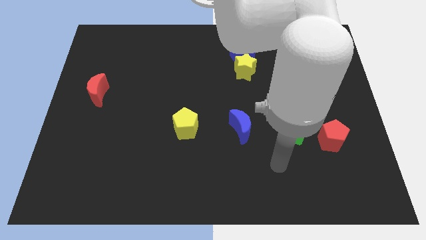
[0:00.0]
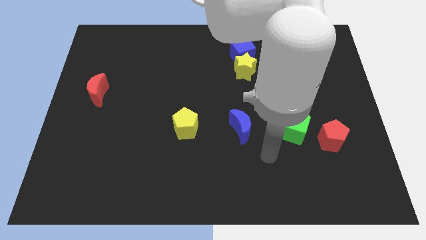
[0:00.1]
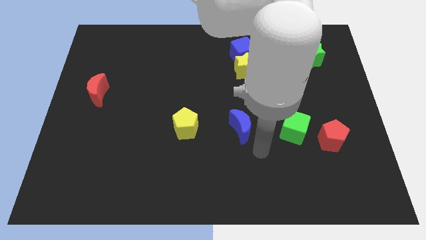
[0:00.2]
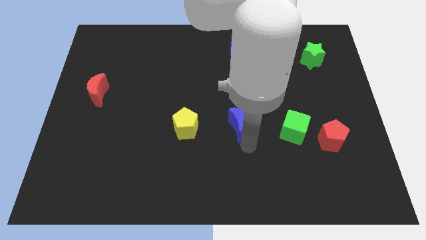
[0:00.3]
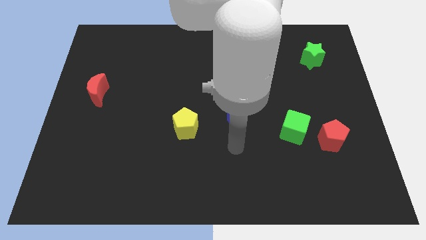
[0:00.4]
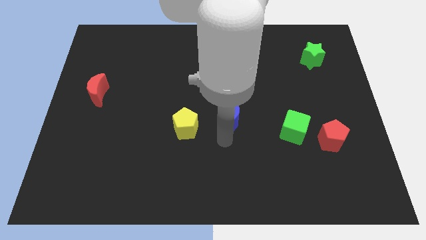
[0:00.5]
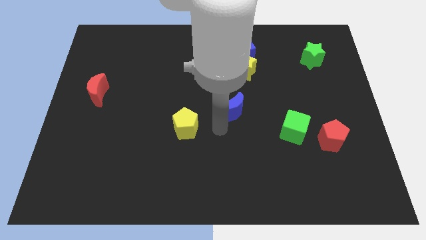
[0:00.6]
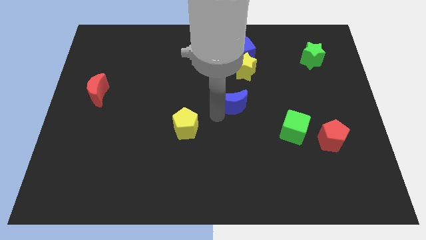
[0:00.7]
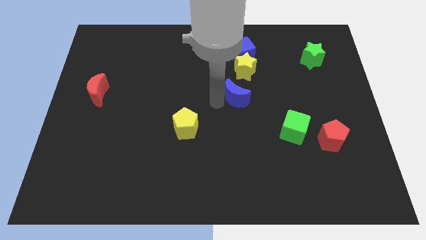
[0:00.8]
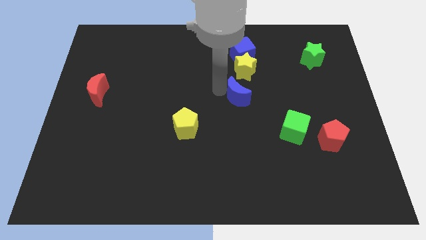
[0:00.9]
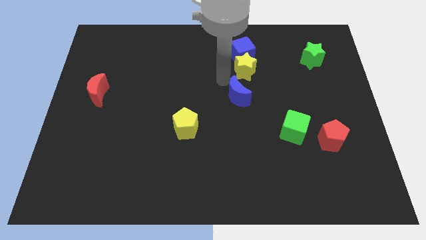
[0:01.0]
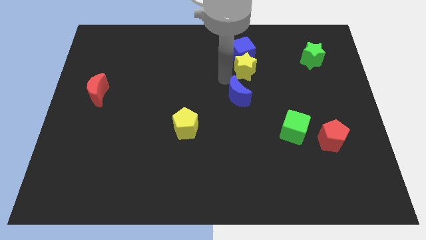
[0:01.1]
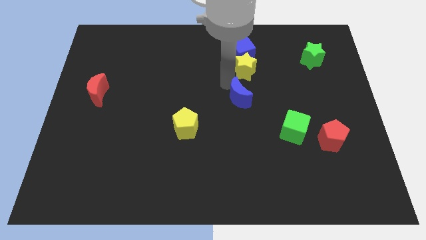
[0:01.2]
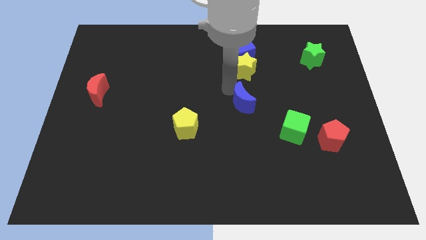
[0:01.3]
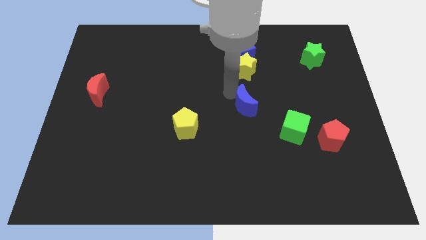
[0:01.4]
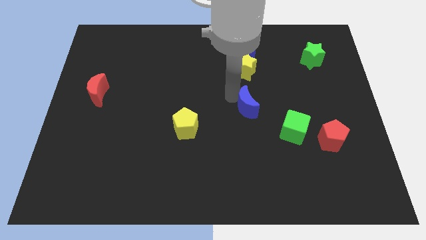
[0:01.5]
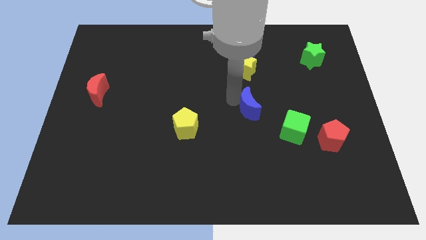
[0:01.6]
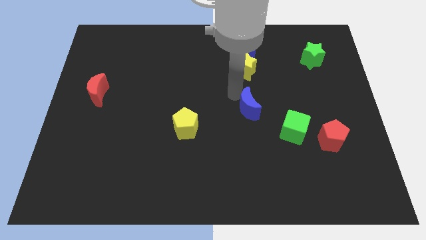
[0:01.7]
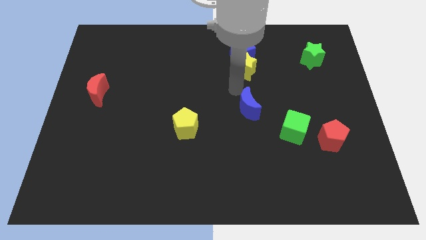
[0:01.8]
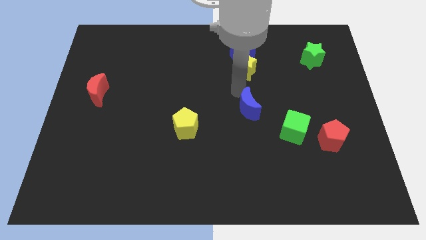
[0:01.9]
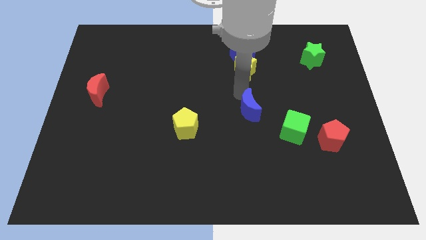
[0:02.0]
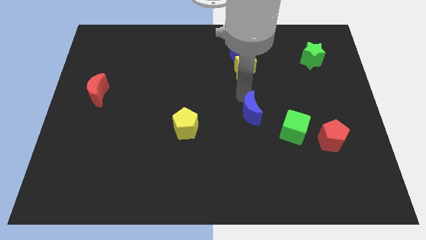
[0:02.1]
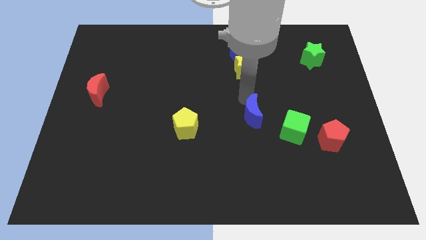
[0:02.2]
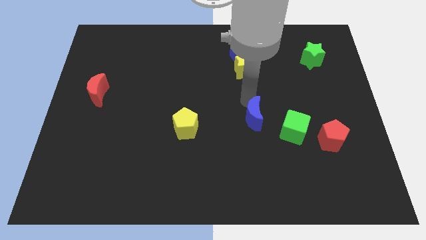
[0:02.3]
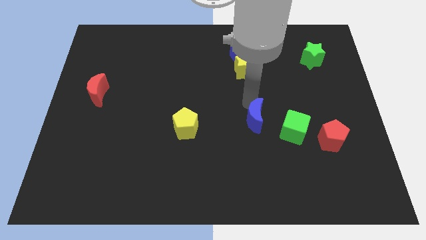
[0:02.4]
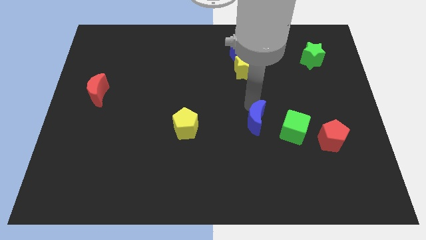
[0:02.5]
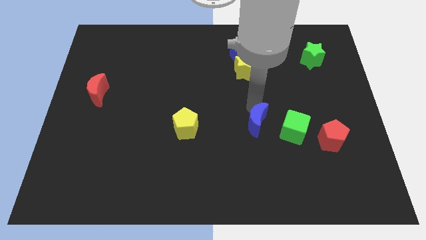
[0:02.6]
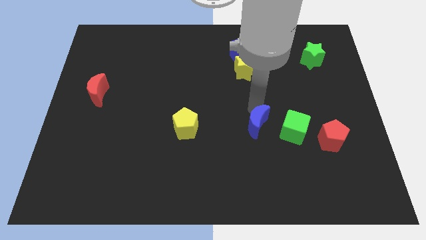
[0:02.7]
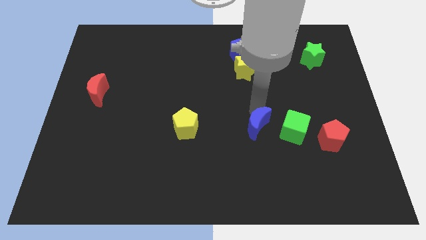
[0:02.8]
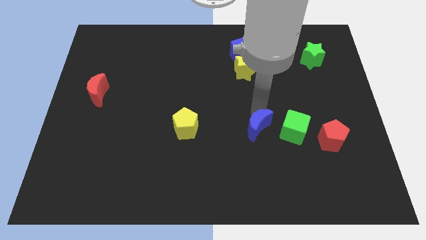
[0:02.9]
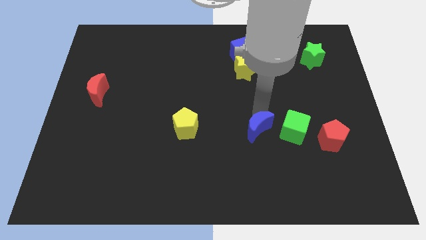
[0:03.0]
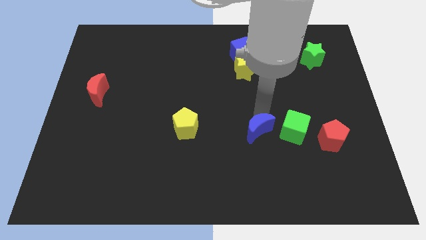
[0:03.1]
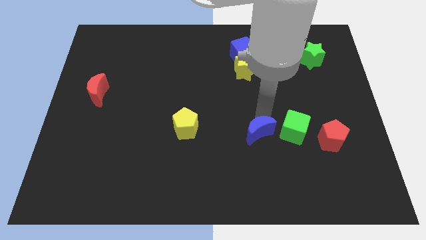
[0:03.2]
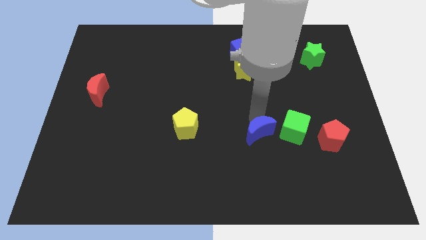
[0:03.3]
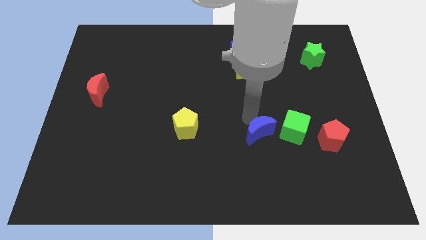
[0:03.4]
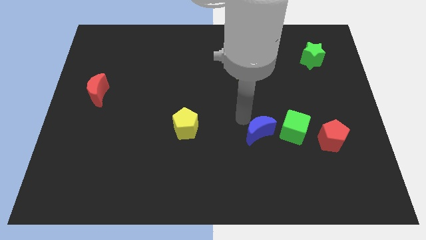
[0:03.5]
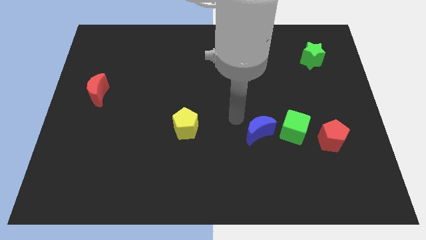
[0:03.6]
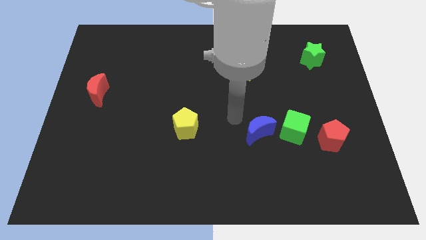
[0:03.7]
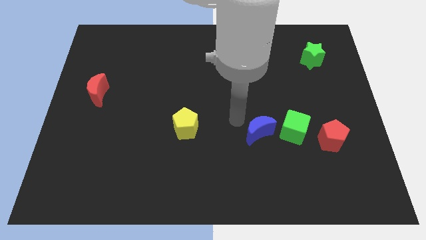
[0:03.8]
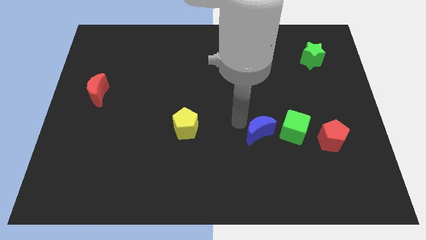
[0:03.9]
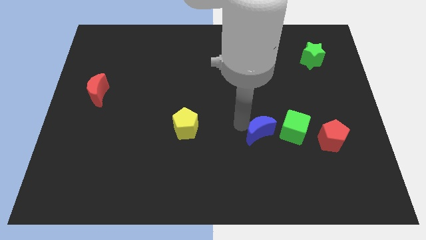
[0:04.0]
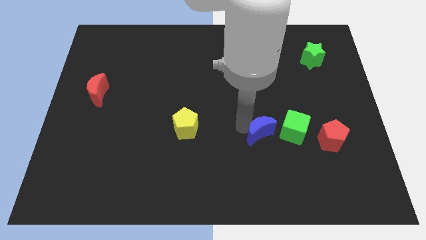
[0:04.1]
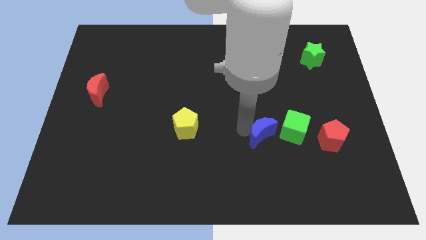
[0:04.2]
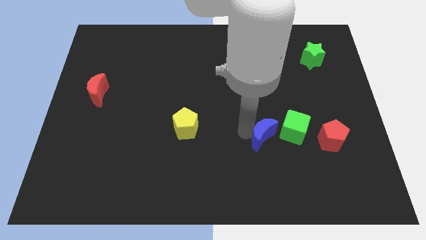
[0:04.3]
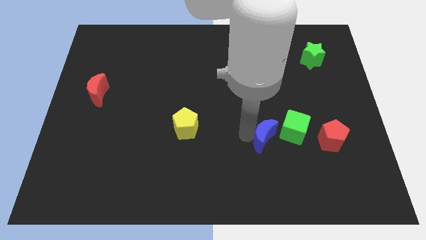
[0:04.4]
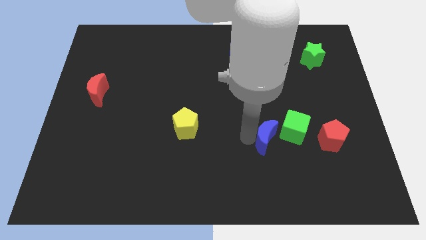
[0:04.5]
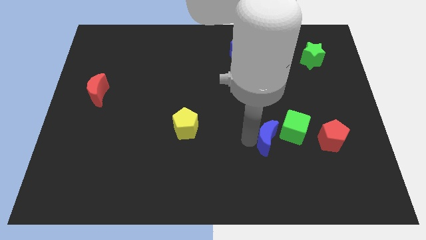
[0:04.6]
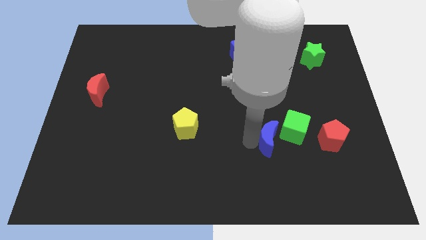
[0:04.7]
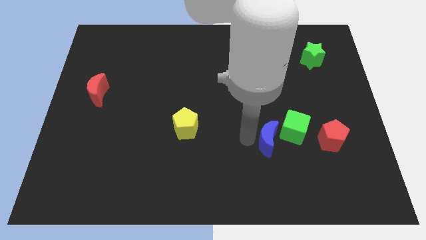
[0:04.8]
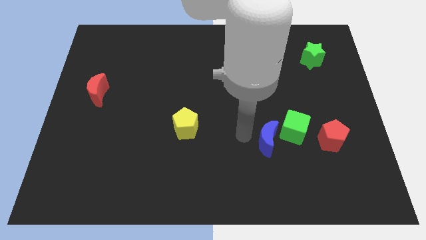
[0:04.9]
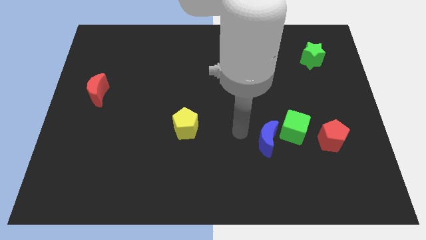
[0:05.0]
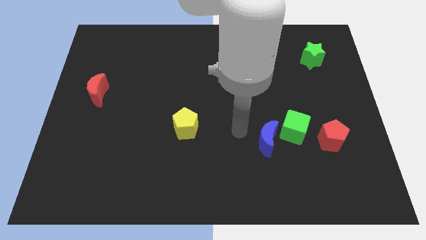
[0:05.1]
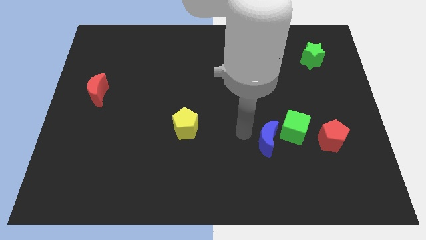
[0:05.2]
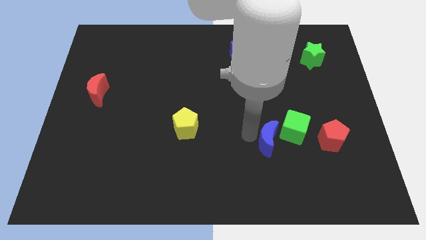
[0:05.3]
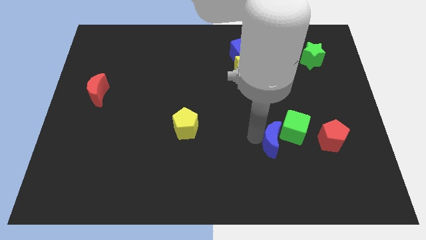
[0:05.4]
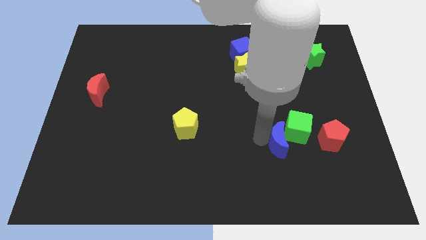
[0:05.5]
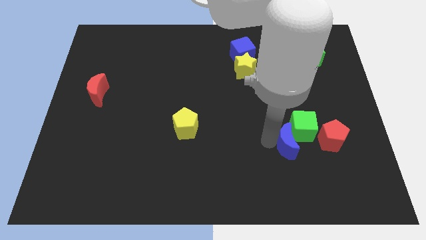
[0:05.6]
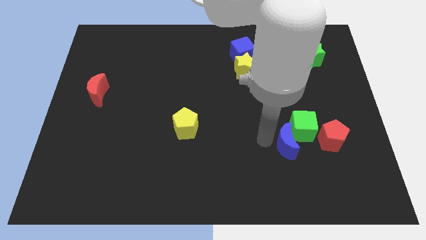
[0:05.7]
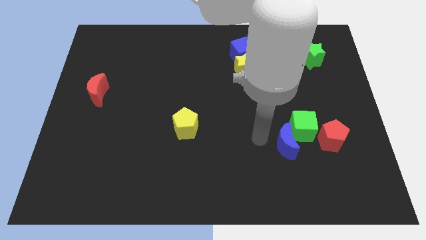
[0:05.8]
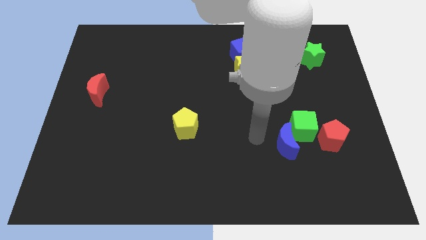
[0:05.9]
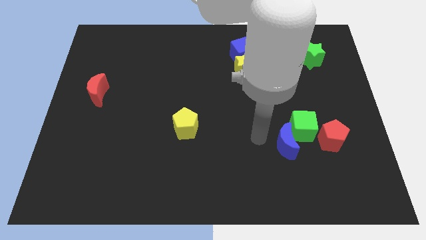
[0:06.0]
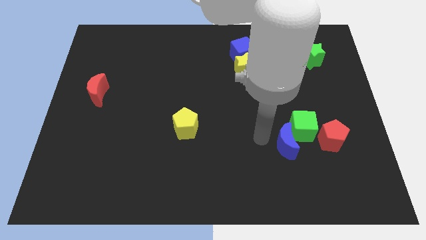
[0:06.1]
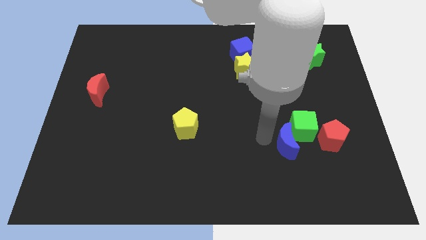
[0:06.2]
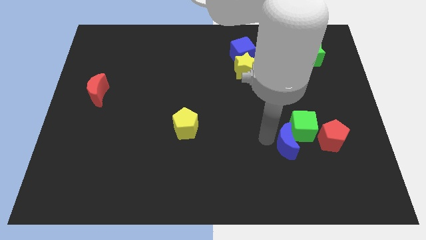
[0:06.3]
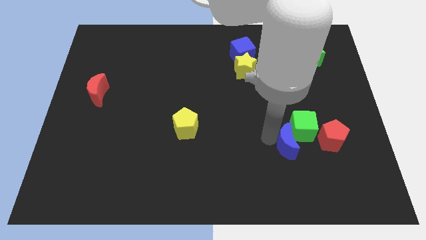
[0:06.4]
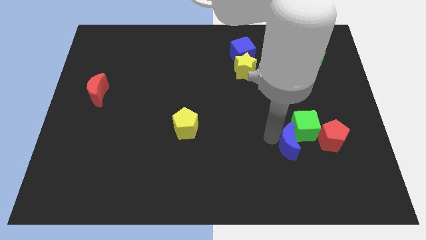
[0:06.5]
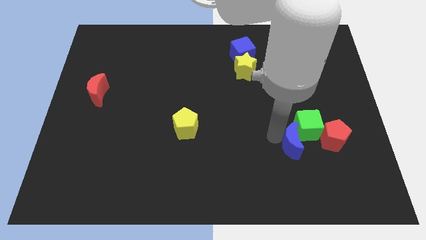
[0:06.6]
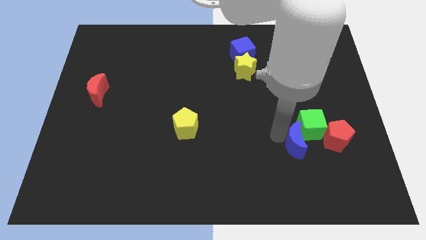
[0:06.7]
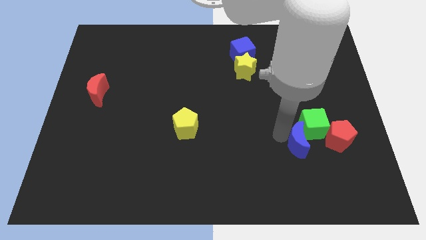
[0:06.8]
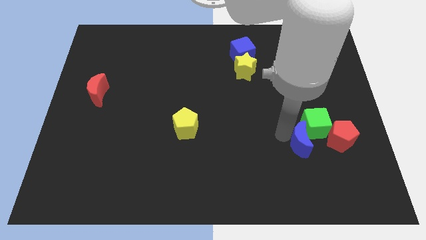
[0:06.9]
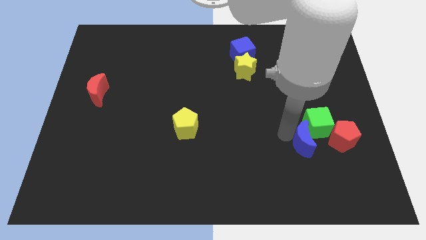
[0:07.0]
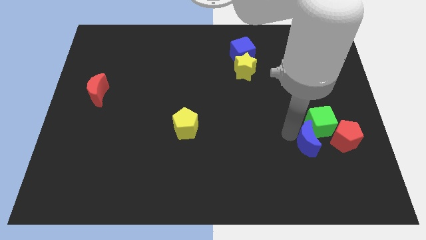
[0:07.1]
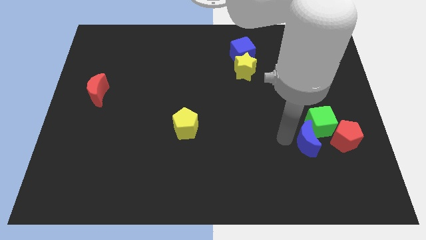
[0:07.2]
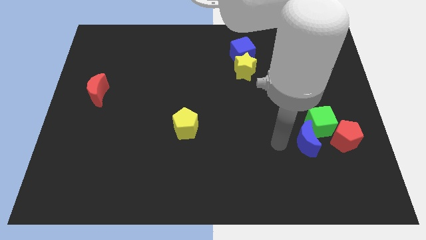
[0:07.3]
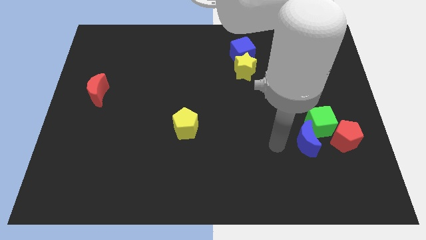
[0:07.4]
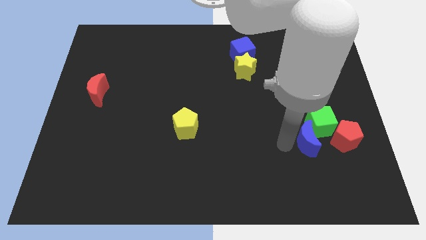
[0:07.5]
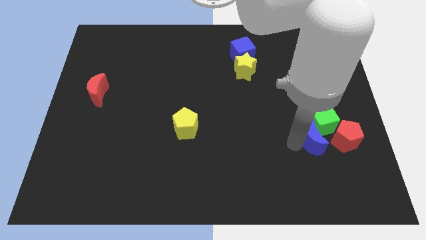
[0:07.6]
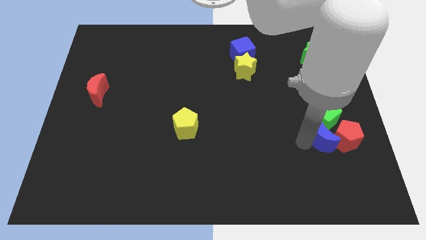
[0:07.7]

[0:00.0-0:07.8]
push the blue moon next to the red pentagon

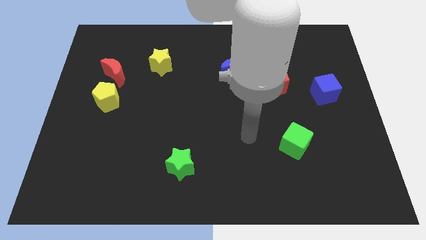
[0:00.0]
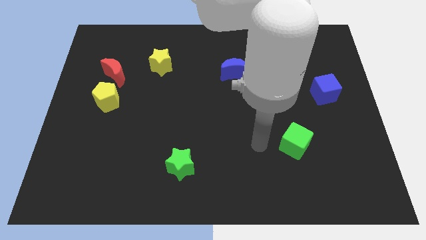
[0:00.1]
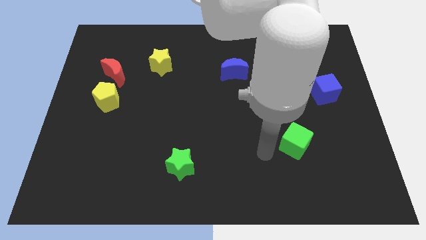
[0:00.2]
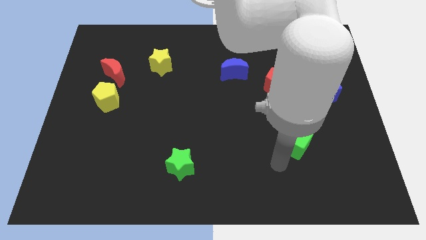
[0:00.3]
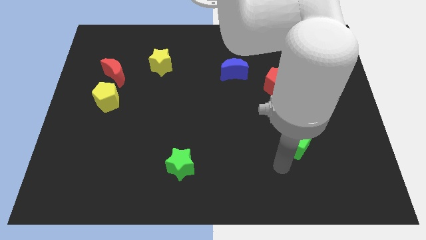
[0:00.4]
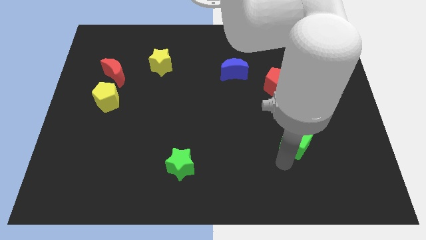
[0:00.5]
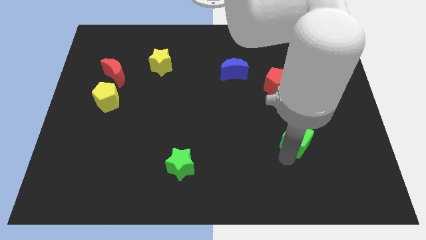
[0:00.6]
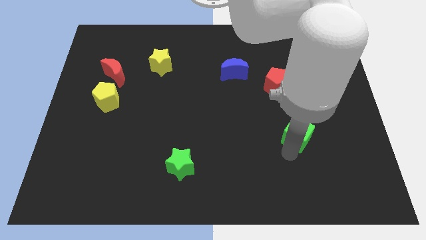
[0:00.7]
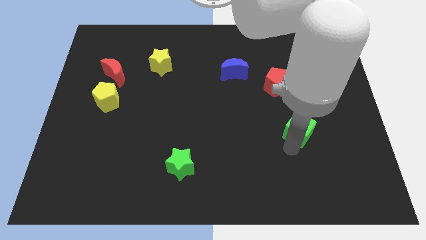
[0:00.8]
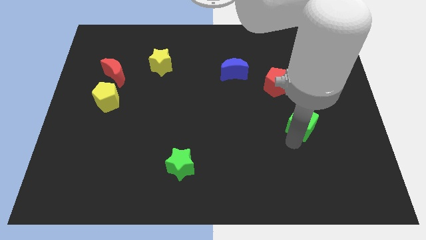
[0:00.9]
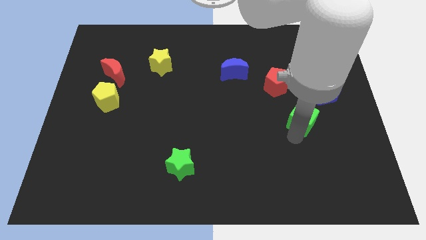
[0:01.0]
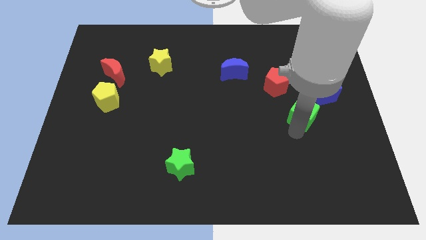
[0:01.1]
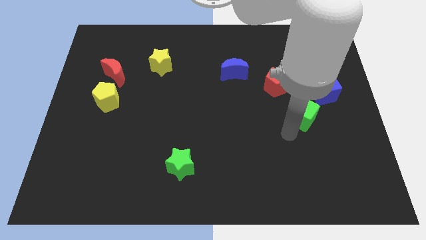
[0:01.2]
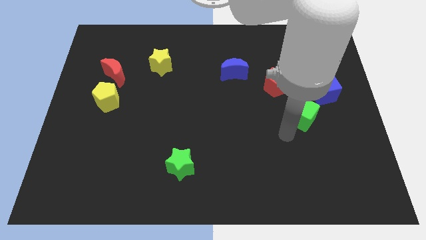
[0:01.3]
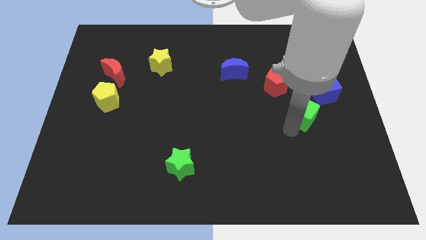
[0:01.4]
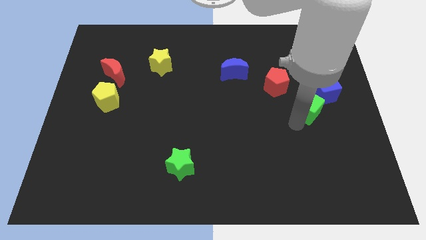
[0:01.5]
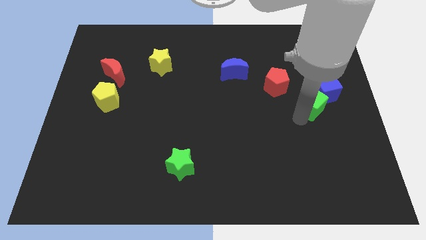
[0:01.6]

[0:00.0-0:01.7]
move the green cube towards the blue cube
